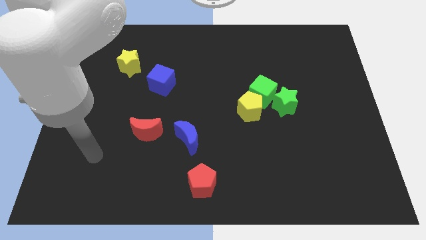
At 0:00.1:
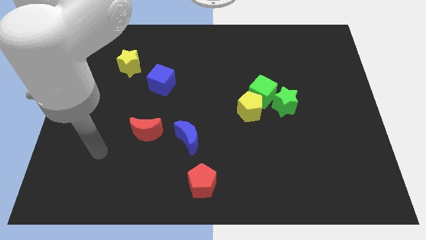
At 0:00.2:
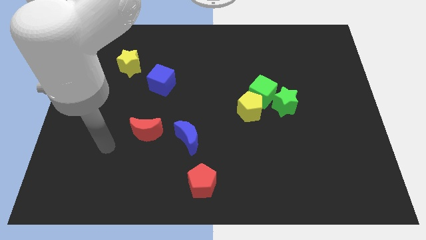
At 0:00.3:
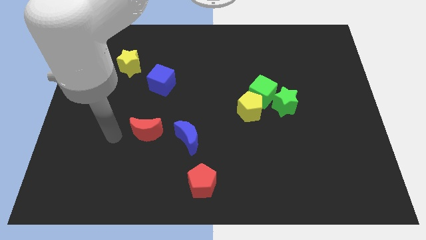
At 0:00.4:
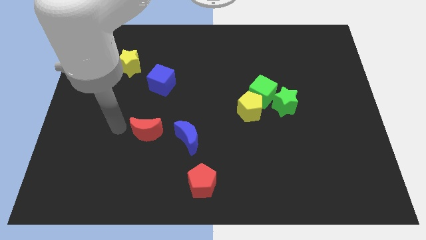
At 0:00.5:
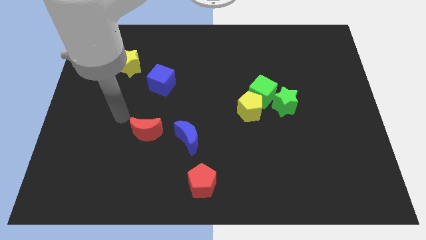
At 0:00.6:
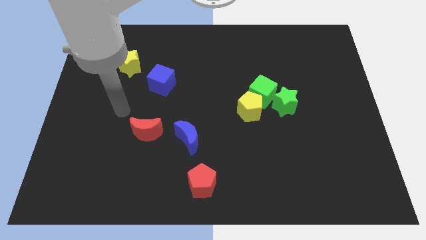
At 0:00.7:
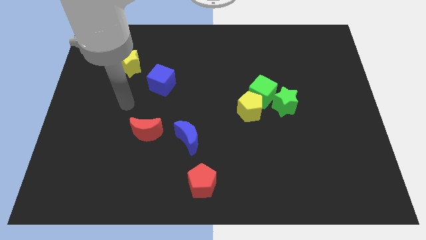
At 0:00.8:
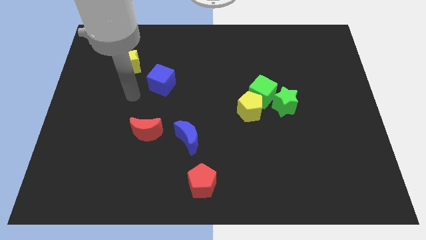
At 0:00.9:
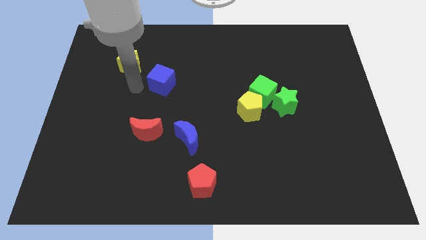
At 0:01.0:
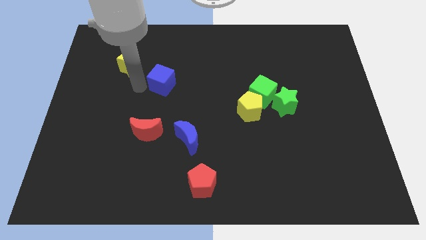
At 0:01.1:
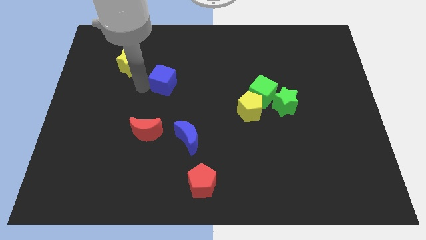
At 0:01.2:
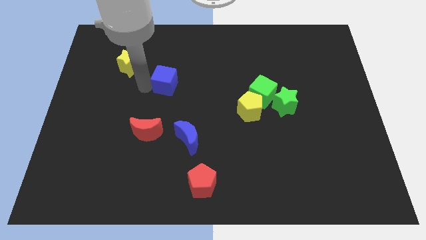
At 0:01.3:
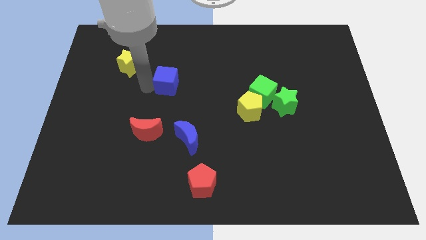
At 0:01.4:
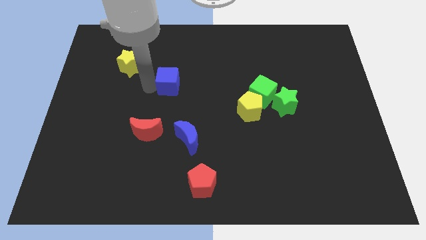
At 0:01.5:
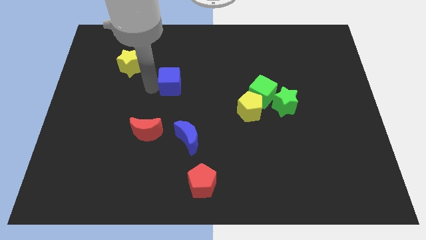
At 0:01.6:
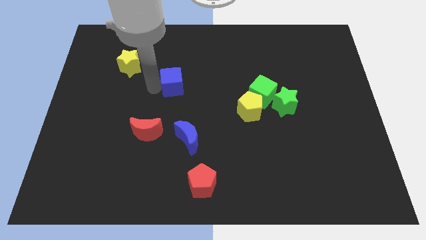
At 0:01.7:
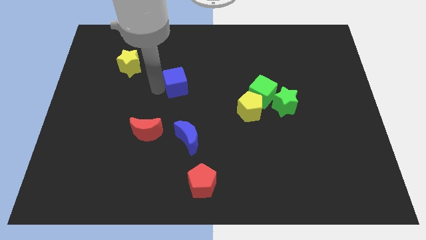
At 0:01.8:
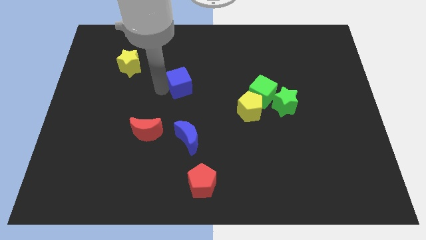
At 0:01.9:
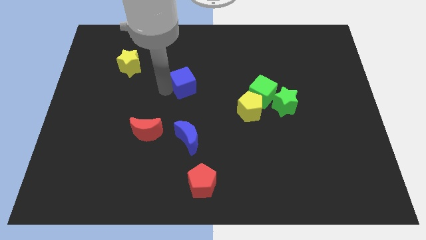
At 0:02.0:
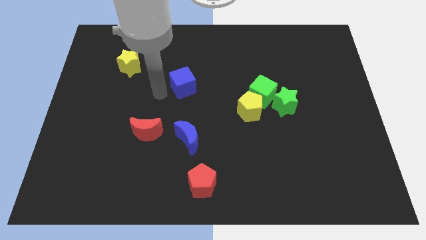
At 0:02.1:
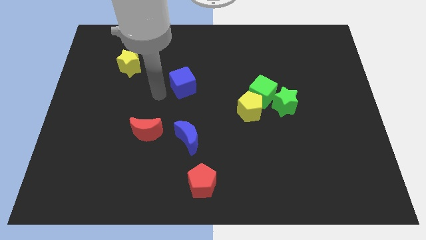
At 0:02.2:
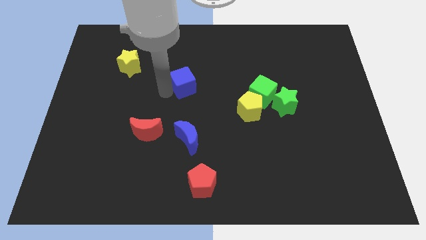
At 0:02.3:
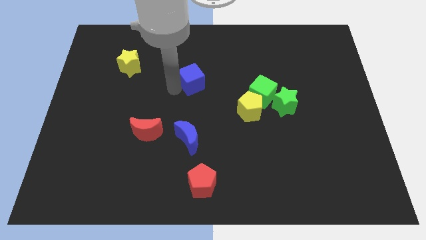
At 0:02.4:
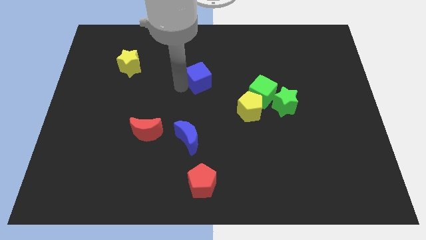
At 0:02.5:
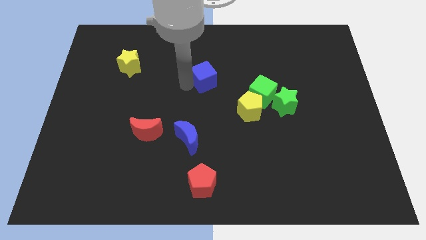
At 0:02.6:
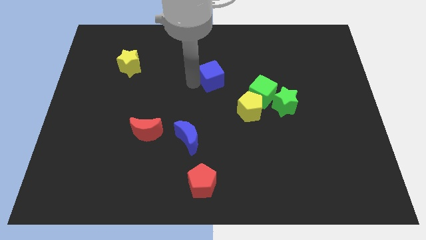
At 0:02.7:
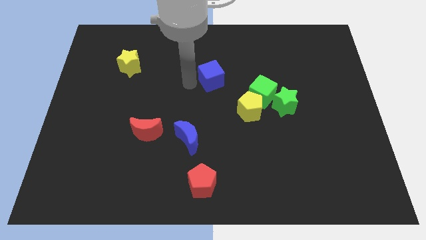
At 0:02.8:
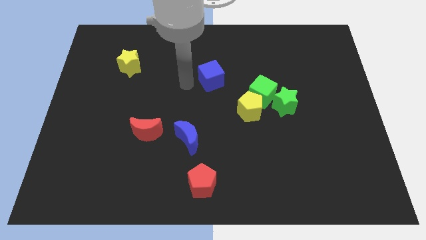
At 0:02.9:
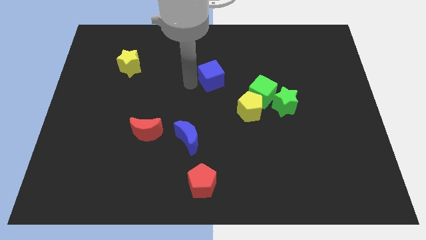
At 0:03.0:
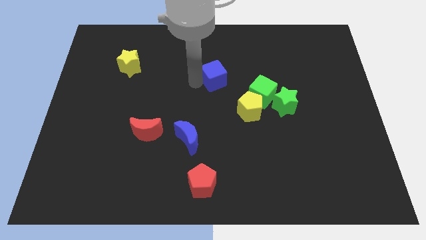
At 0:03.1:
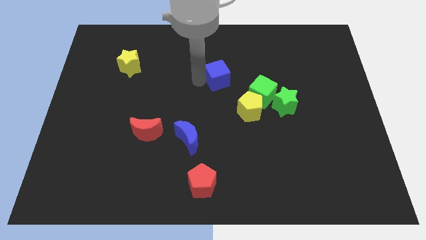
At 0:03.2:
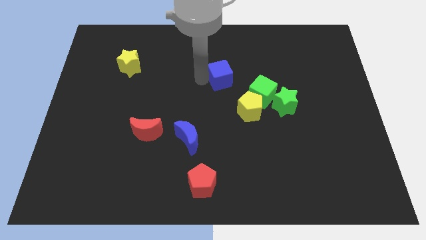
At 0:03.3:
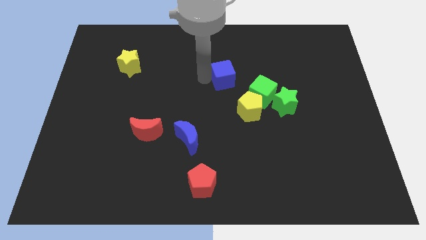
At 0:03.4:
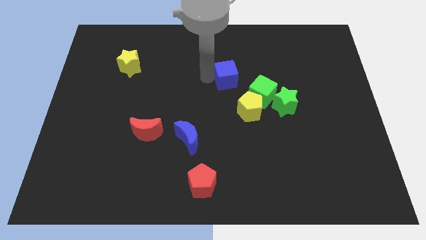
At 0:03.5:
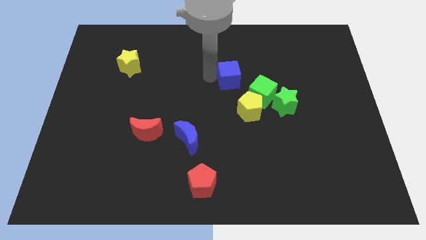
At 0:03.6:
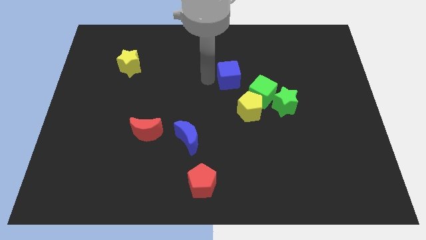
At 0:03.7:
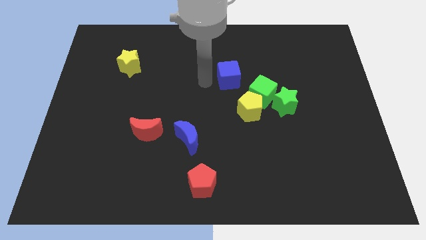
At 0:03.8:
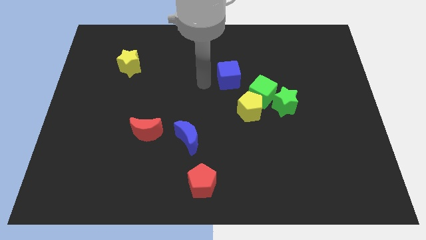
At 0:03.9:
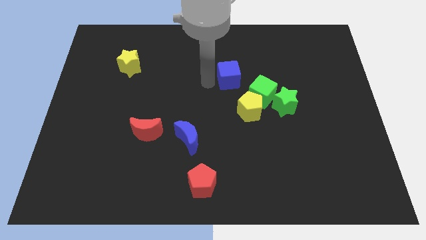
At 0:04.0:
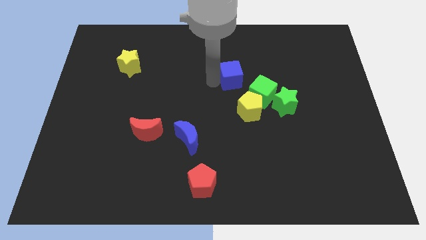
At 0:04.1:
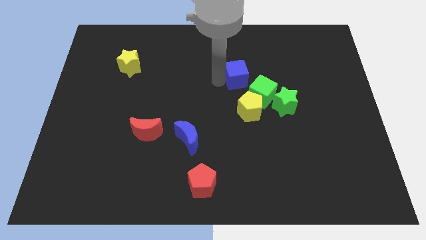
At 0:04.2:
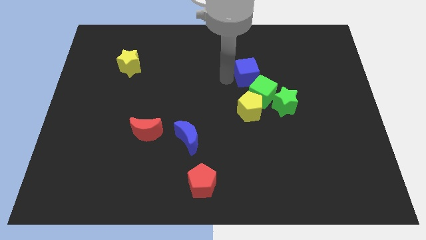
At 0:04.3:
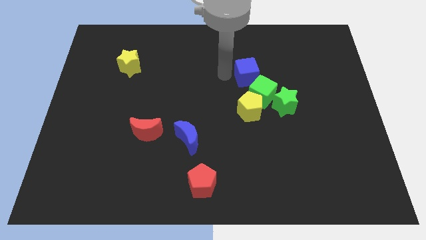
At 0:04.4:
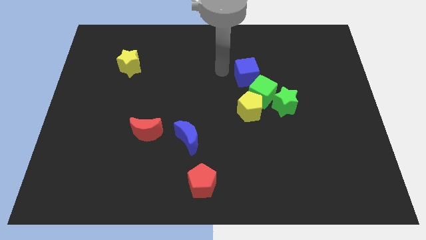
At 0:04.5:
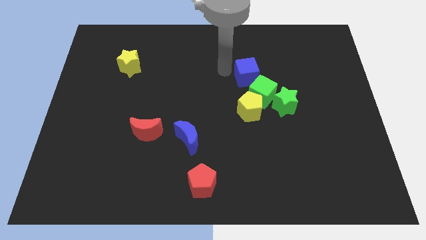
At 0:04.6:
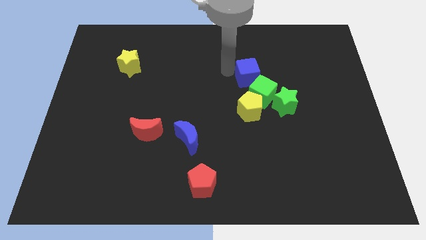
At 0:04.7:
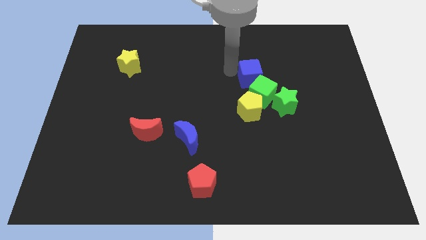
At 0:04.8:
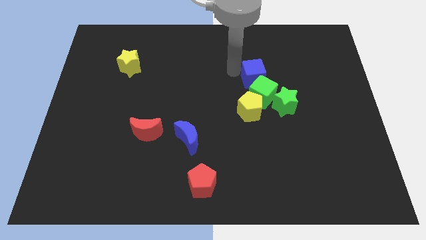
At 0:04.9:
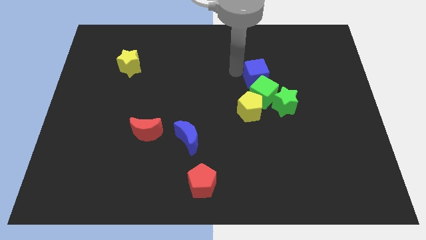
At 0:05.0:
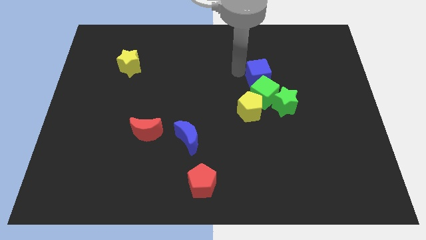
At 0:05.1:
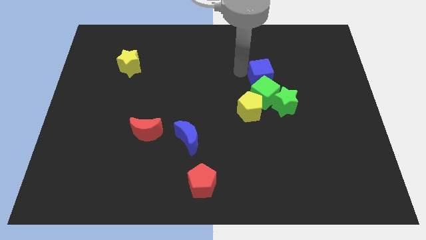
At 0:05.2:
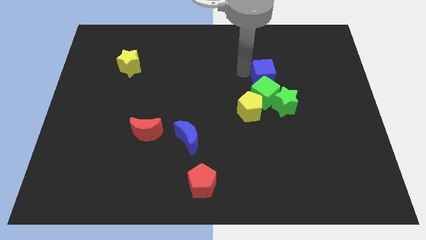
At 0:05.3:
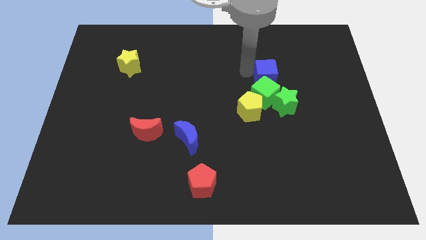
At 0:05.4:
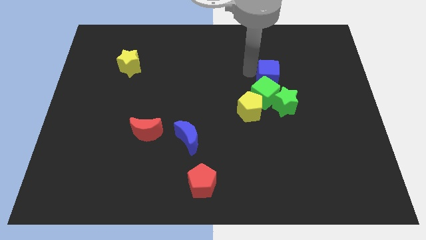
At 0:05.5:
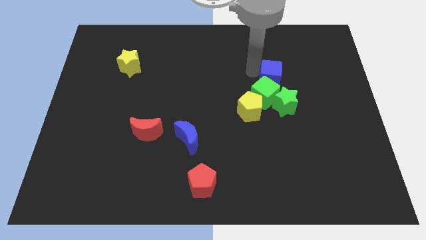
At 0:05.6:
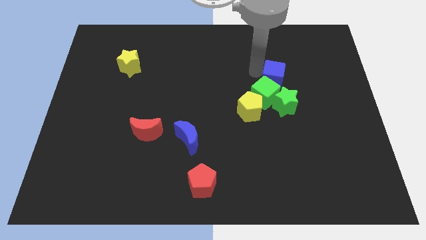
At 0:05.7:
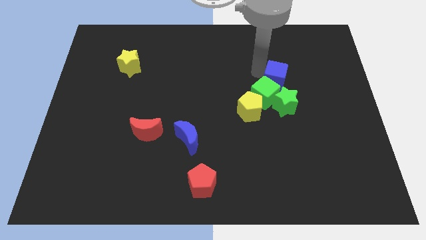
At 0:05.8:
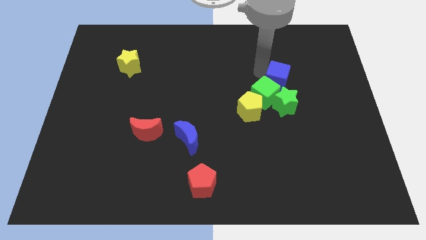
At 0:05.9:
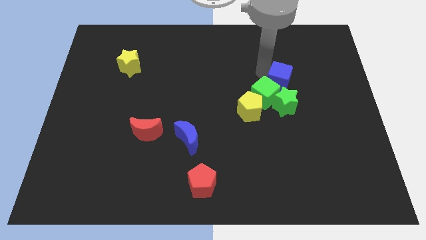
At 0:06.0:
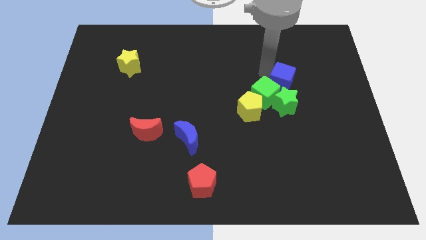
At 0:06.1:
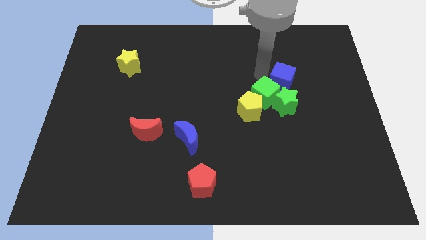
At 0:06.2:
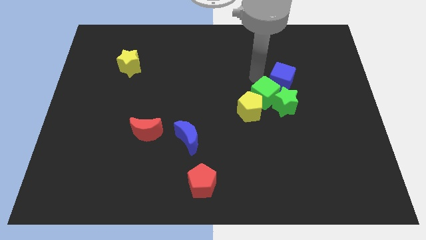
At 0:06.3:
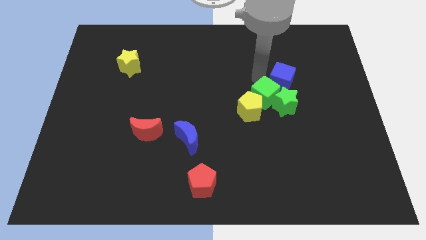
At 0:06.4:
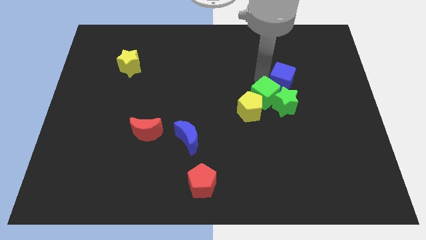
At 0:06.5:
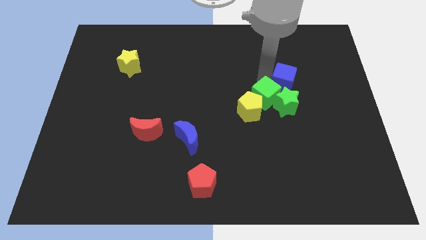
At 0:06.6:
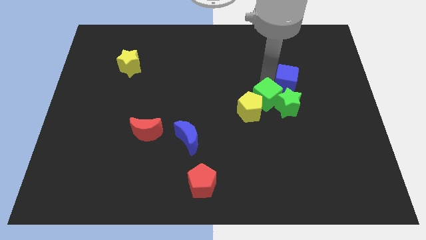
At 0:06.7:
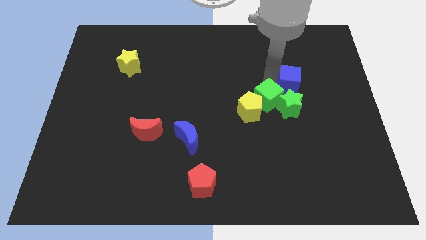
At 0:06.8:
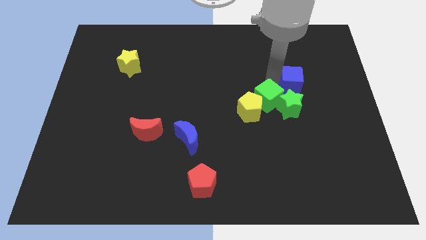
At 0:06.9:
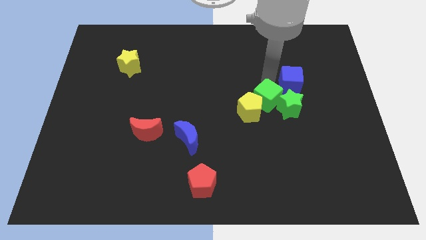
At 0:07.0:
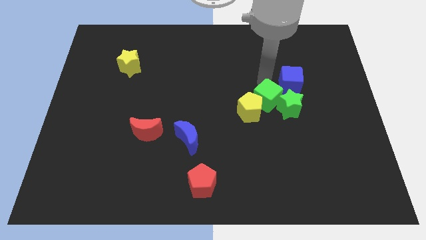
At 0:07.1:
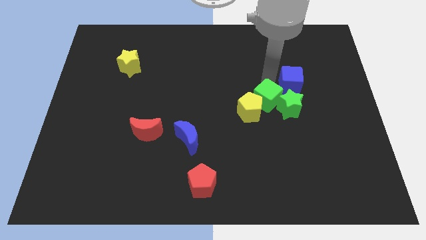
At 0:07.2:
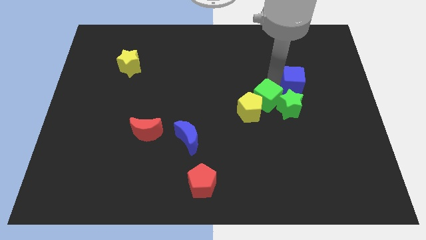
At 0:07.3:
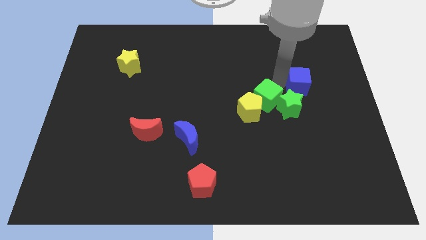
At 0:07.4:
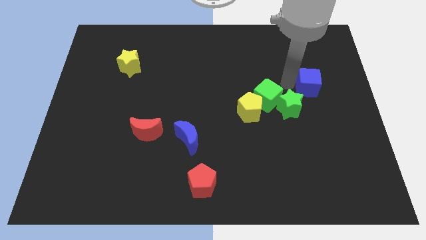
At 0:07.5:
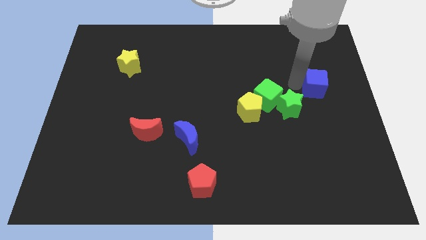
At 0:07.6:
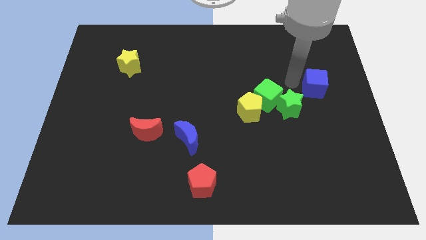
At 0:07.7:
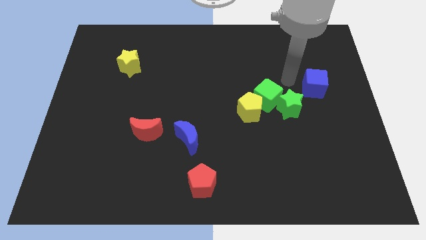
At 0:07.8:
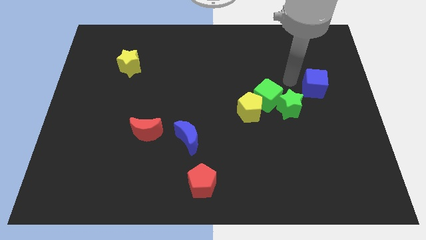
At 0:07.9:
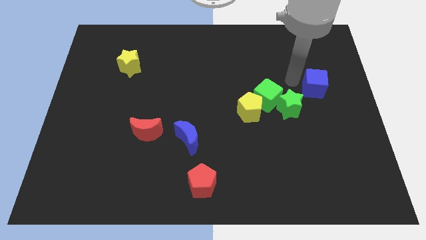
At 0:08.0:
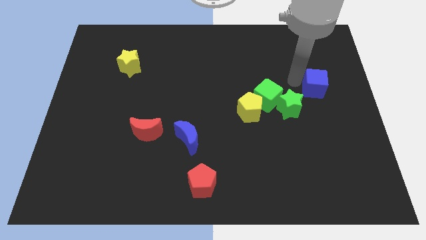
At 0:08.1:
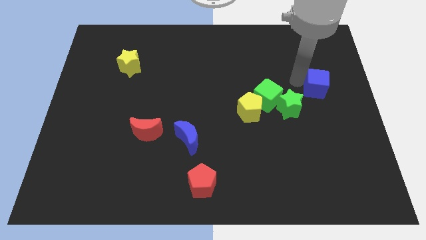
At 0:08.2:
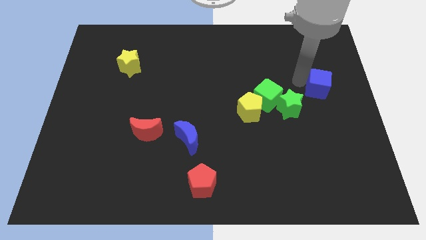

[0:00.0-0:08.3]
slide the blue cube to the center right
